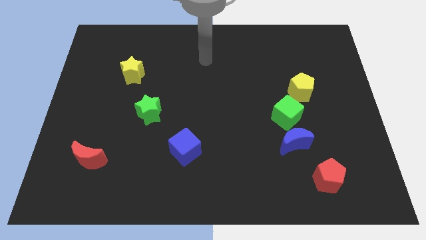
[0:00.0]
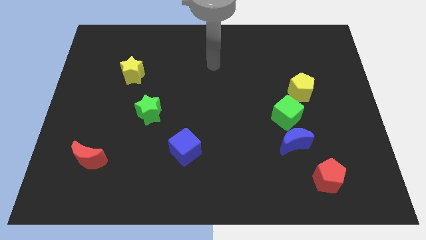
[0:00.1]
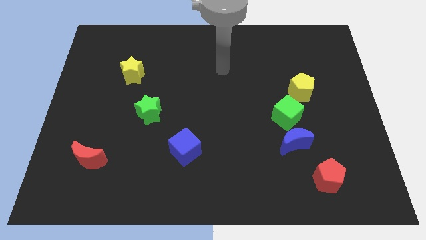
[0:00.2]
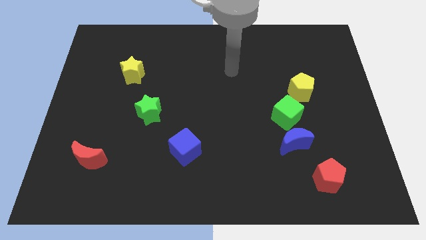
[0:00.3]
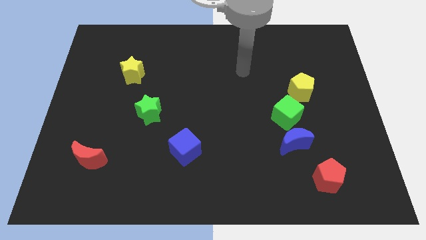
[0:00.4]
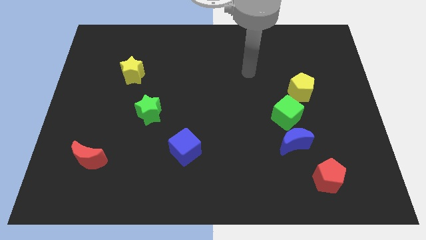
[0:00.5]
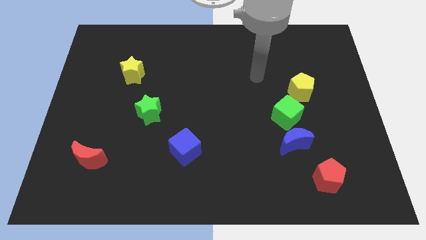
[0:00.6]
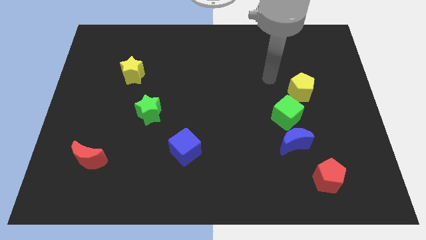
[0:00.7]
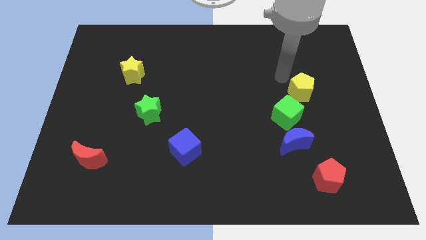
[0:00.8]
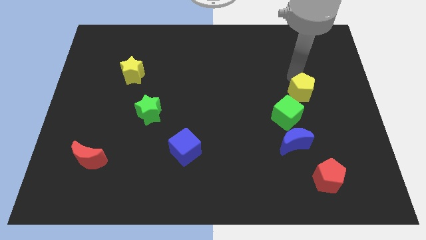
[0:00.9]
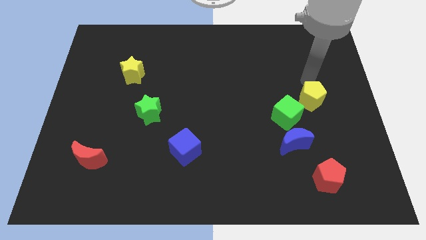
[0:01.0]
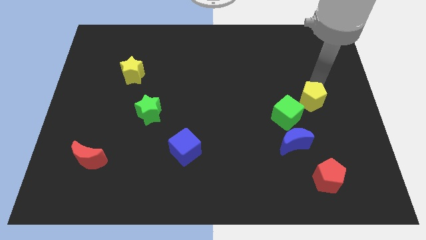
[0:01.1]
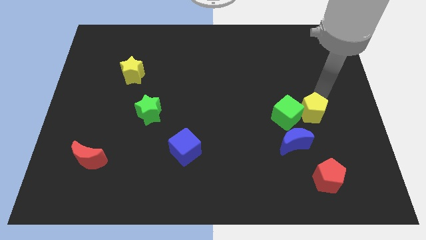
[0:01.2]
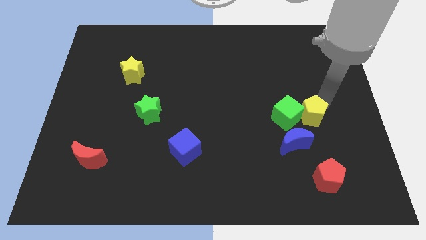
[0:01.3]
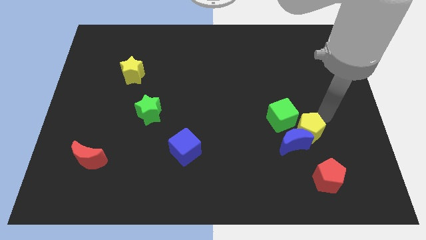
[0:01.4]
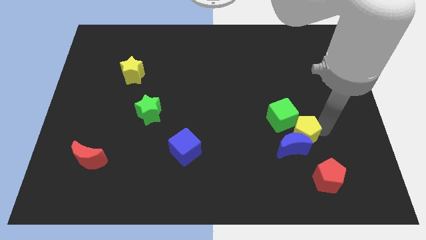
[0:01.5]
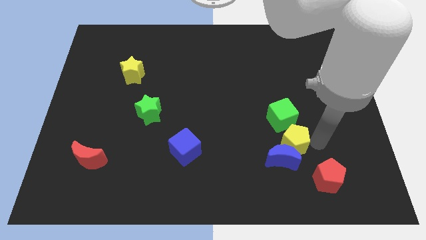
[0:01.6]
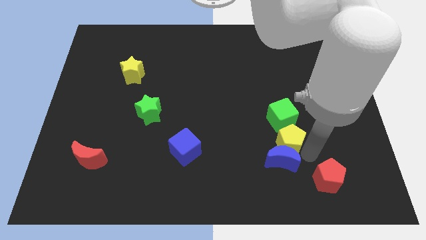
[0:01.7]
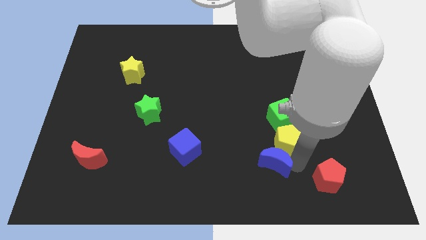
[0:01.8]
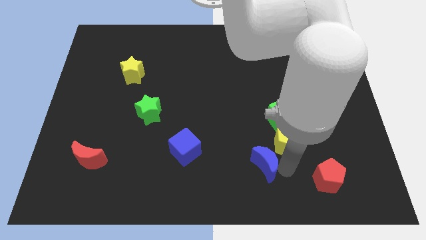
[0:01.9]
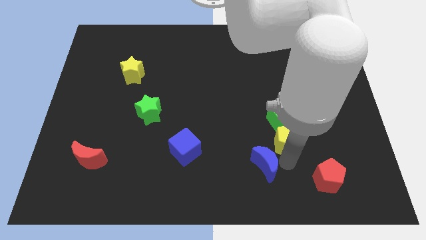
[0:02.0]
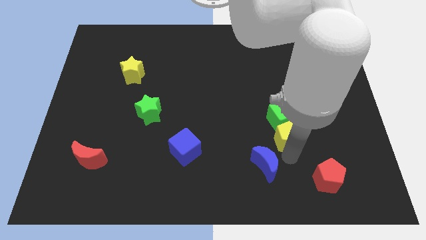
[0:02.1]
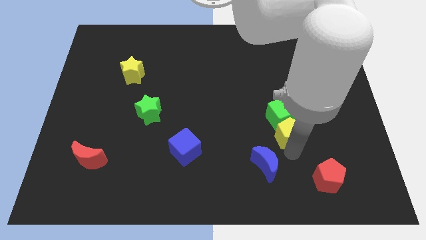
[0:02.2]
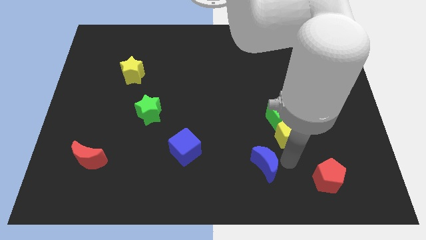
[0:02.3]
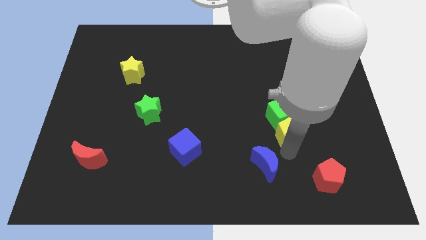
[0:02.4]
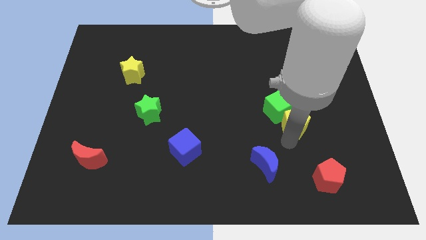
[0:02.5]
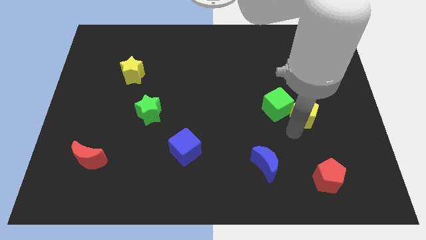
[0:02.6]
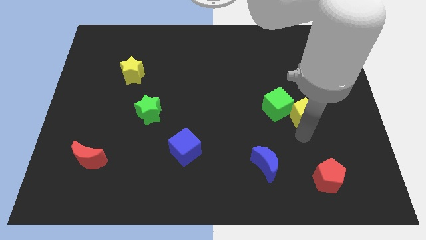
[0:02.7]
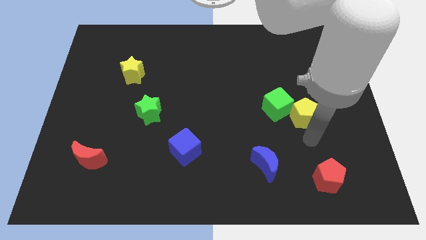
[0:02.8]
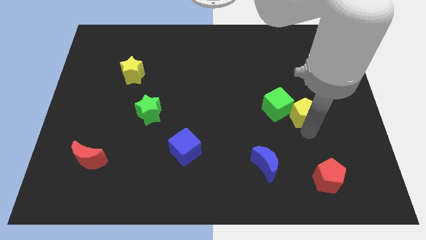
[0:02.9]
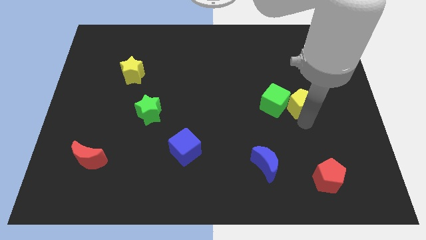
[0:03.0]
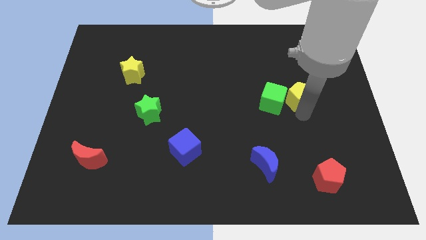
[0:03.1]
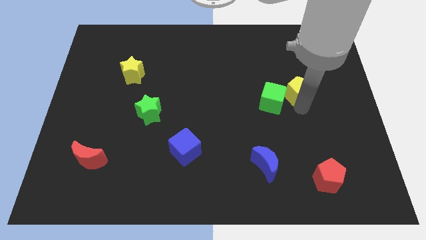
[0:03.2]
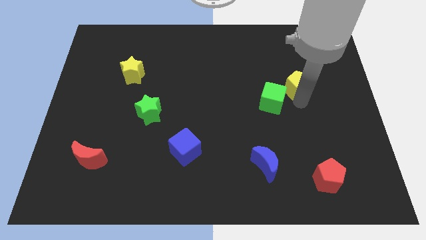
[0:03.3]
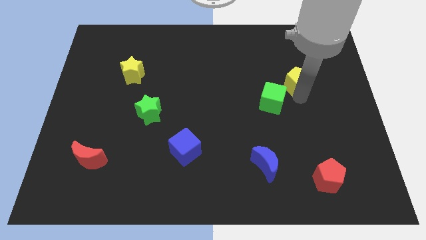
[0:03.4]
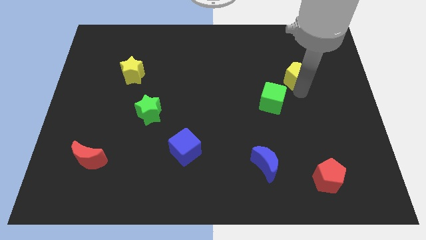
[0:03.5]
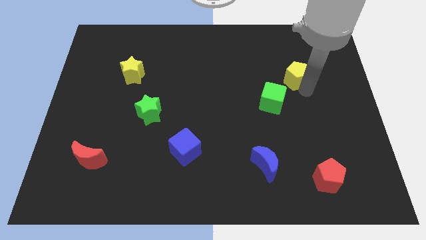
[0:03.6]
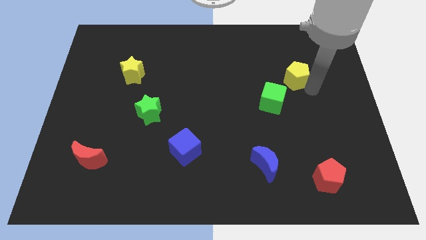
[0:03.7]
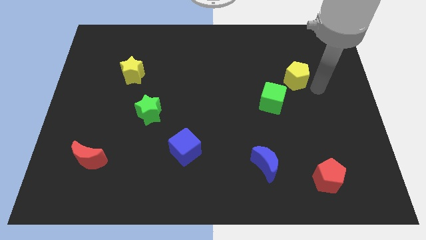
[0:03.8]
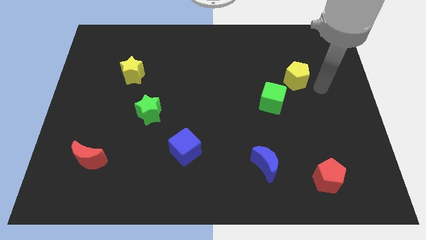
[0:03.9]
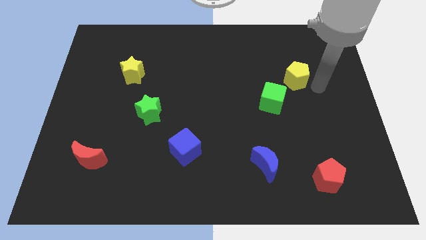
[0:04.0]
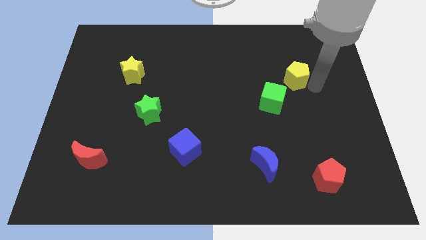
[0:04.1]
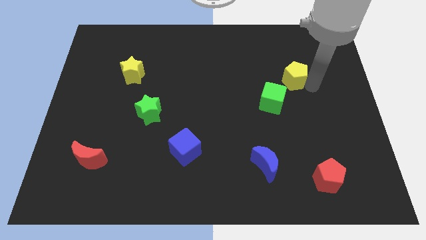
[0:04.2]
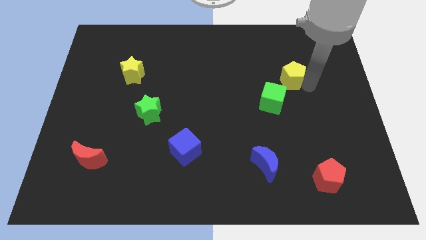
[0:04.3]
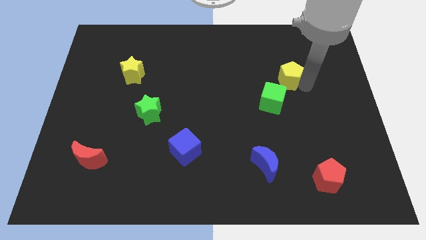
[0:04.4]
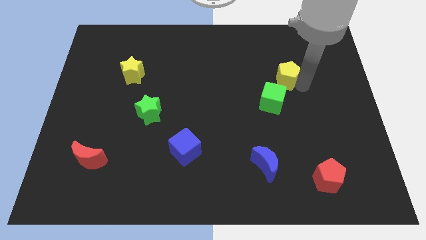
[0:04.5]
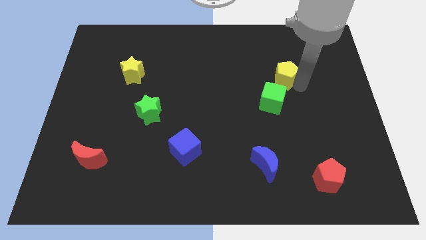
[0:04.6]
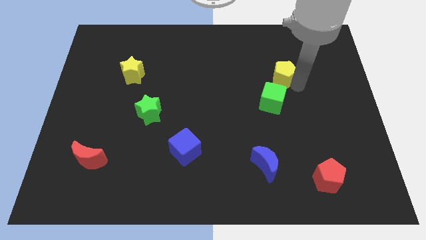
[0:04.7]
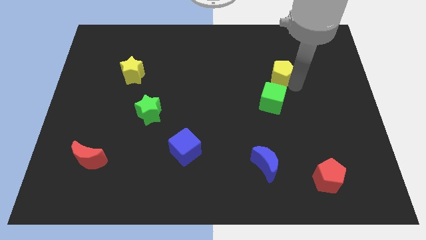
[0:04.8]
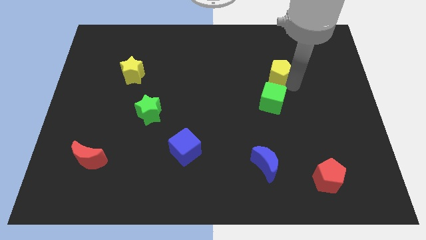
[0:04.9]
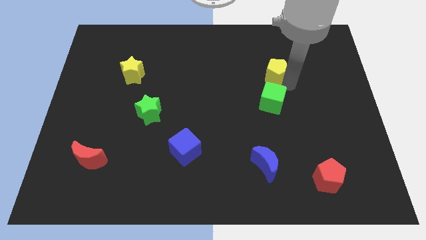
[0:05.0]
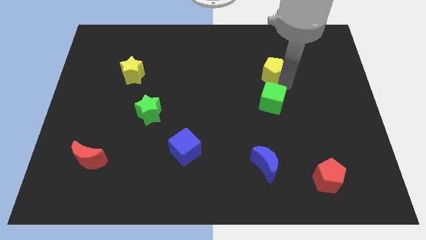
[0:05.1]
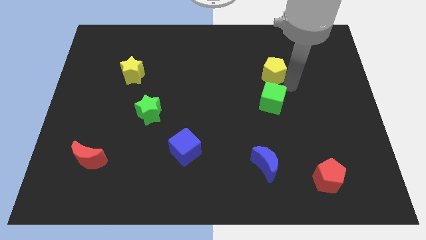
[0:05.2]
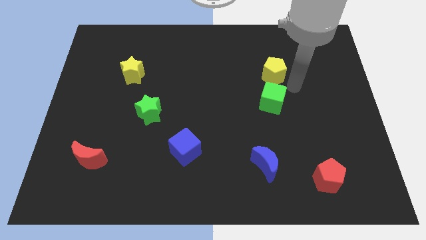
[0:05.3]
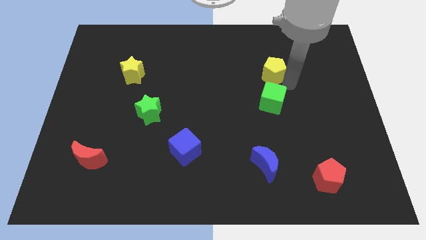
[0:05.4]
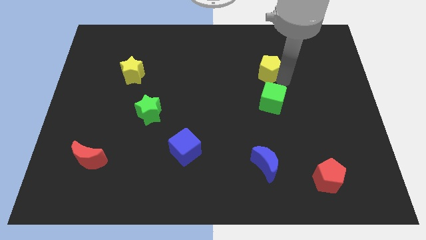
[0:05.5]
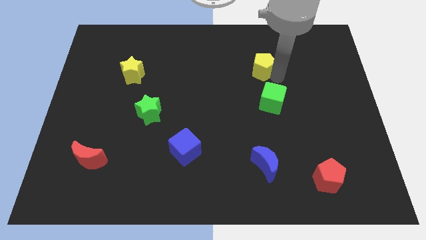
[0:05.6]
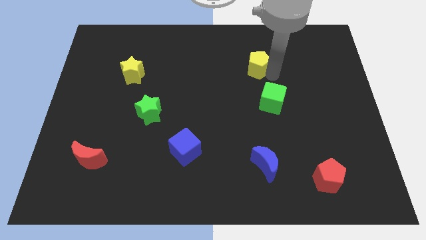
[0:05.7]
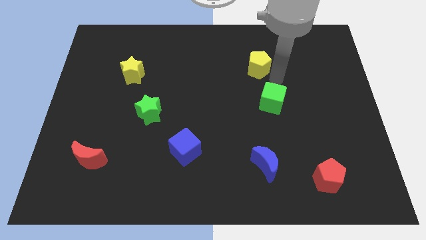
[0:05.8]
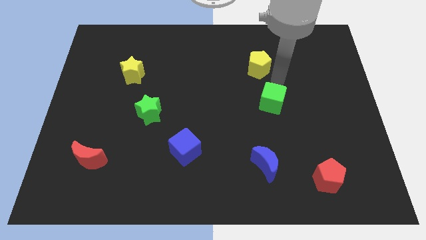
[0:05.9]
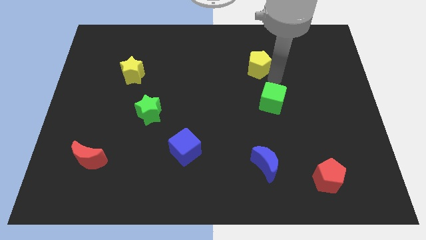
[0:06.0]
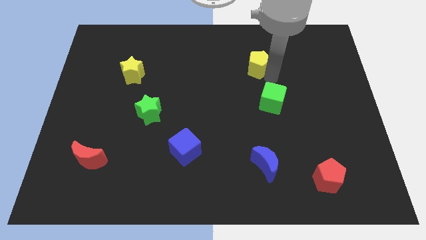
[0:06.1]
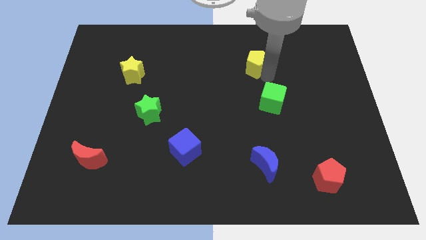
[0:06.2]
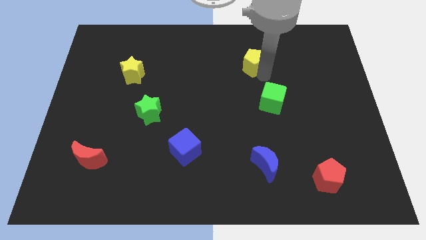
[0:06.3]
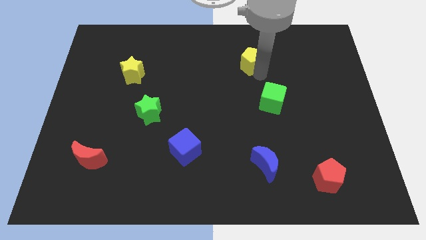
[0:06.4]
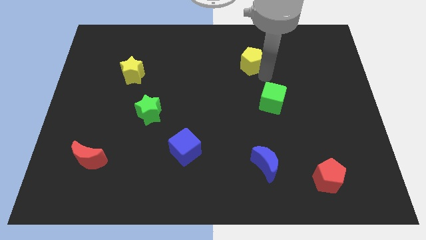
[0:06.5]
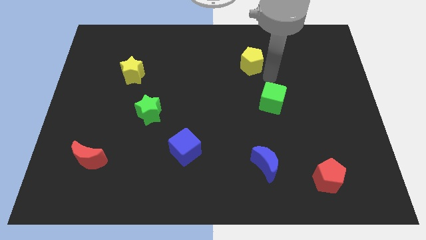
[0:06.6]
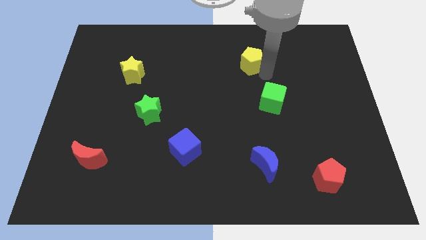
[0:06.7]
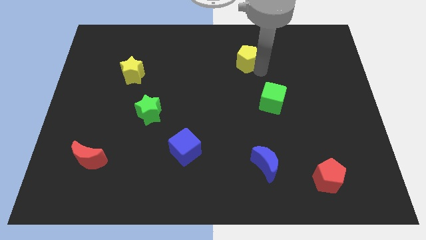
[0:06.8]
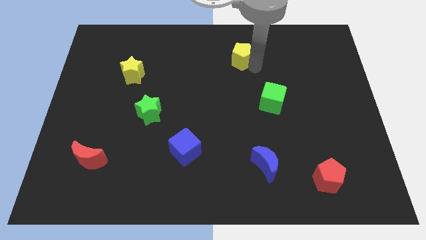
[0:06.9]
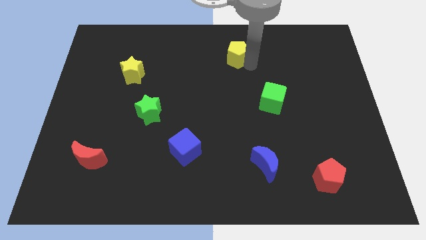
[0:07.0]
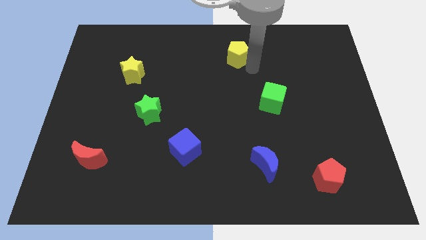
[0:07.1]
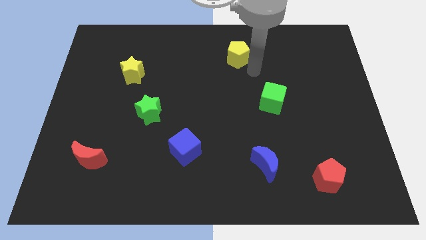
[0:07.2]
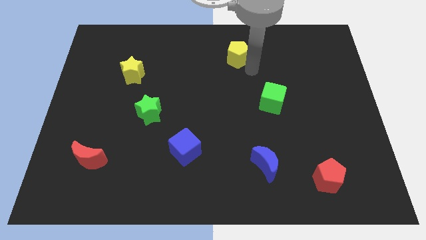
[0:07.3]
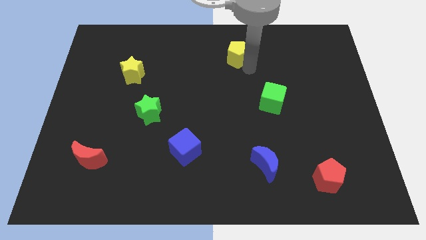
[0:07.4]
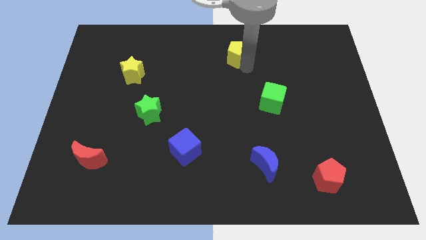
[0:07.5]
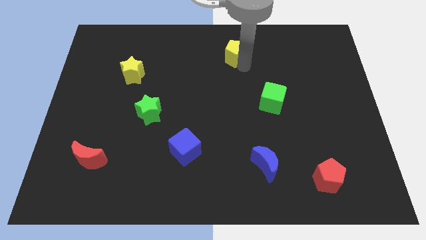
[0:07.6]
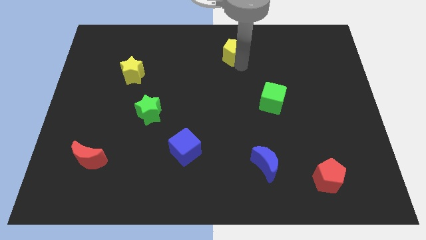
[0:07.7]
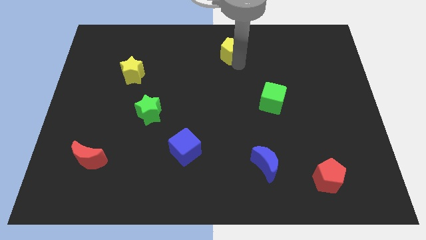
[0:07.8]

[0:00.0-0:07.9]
slide the yellow pentagon to the top
